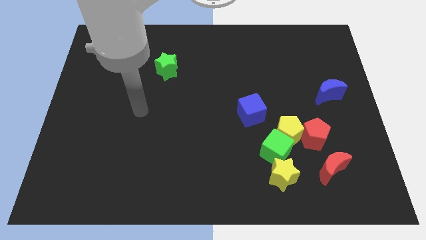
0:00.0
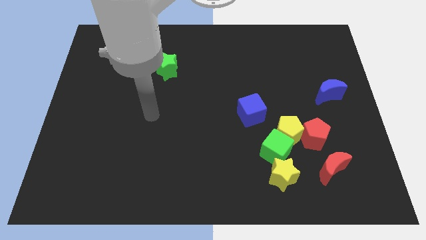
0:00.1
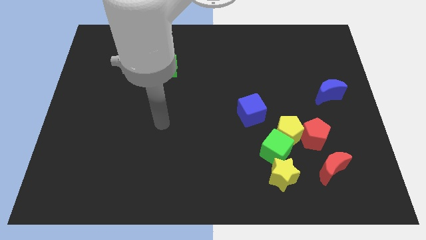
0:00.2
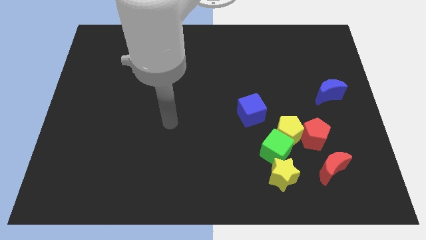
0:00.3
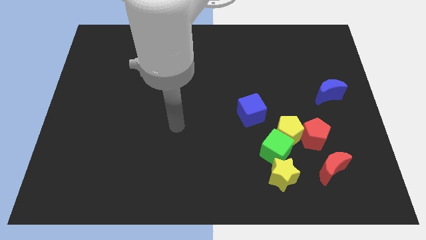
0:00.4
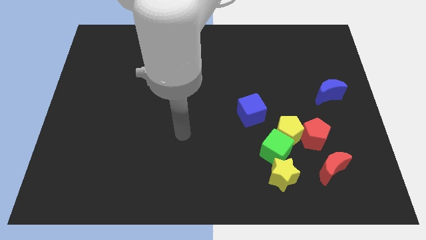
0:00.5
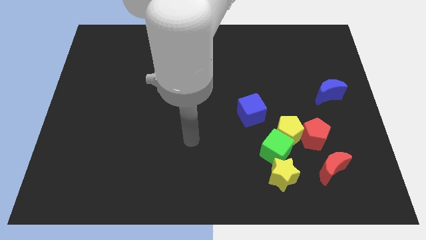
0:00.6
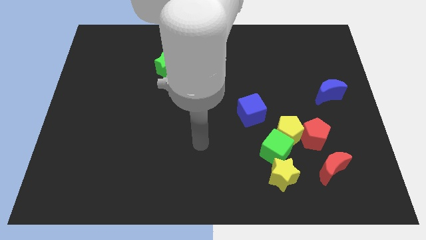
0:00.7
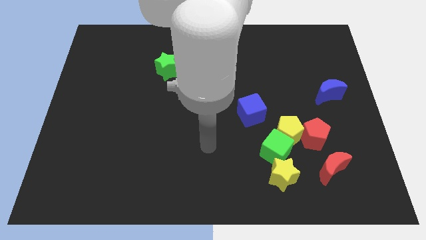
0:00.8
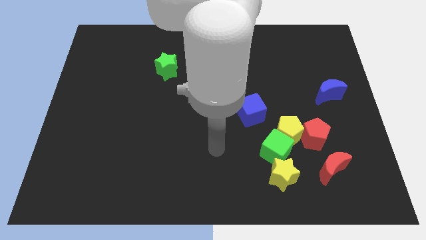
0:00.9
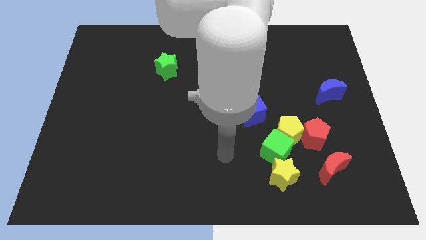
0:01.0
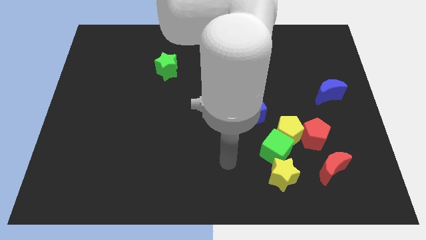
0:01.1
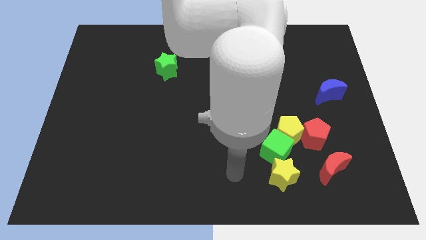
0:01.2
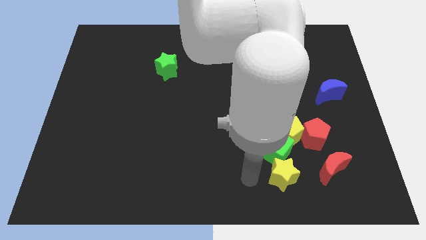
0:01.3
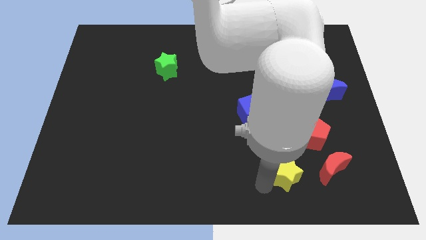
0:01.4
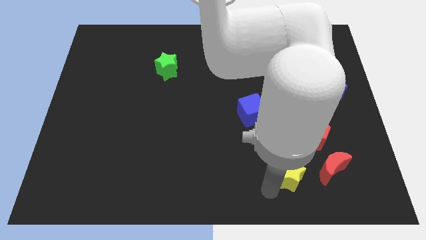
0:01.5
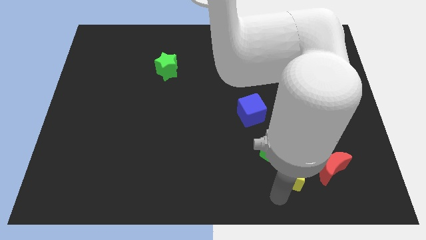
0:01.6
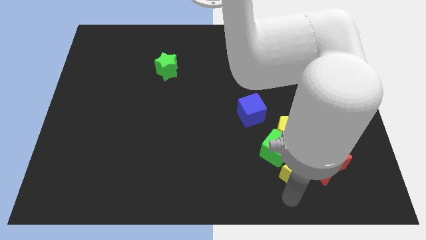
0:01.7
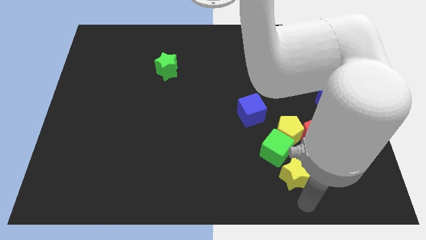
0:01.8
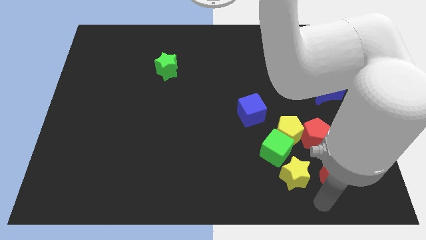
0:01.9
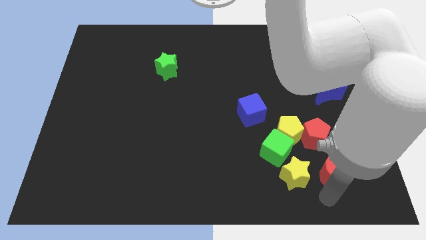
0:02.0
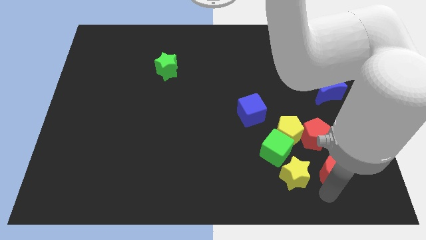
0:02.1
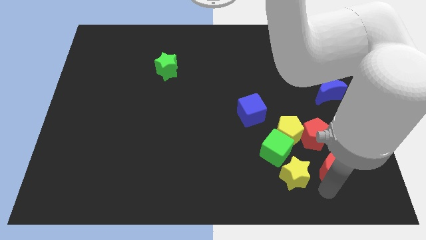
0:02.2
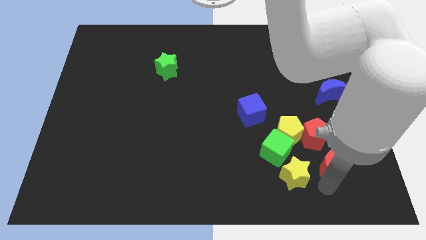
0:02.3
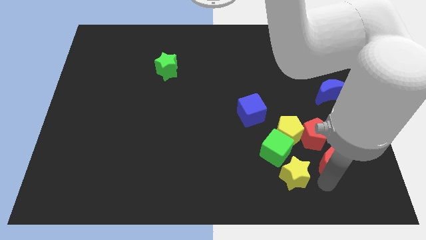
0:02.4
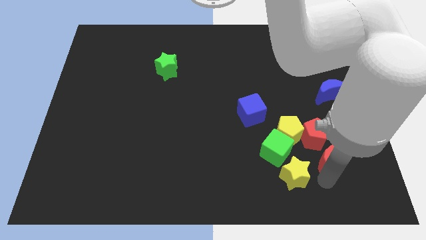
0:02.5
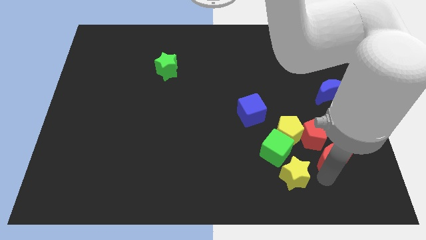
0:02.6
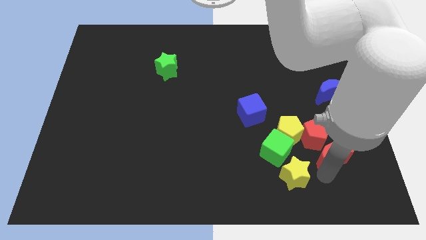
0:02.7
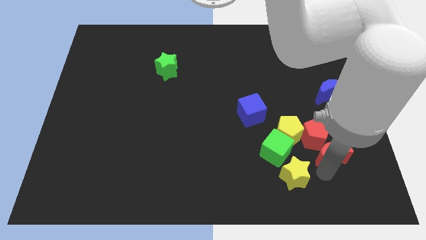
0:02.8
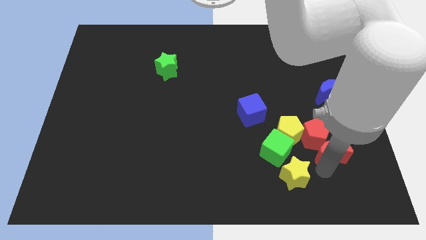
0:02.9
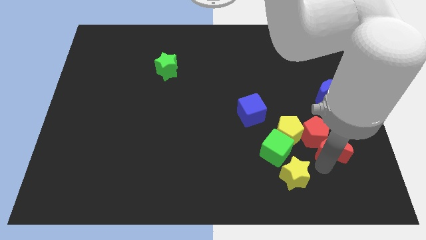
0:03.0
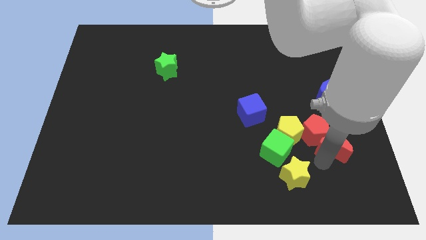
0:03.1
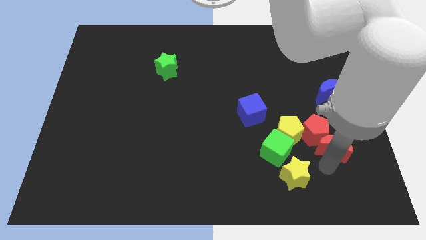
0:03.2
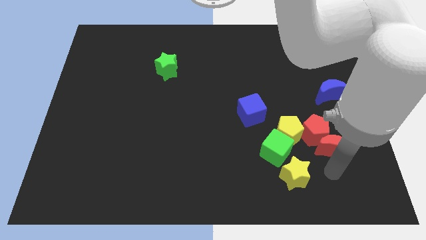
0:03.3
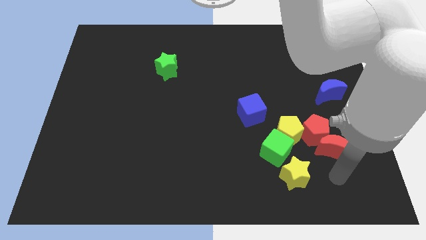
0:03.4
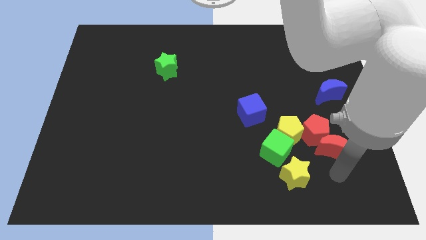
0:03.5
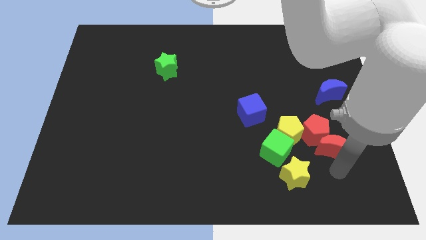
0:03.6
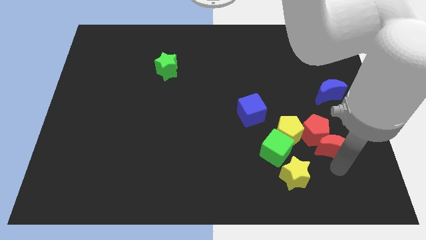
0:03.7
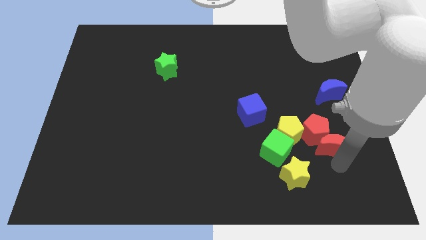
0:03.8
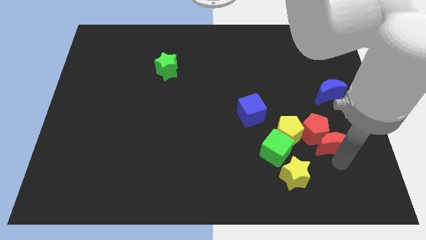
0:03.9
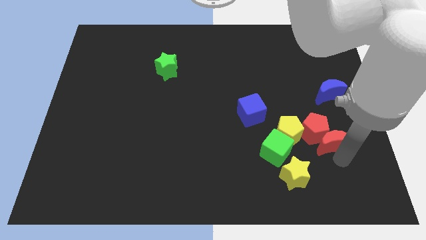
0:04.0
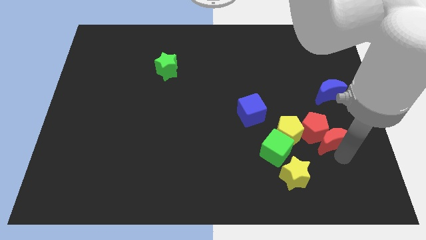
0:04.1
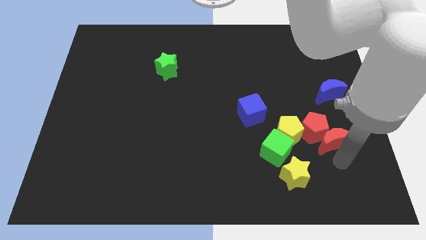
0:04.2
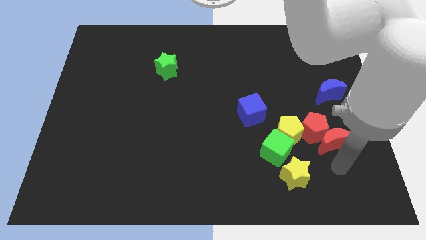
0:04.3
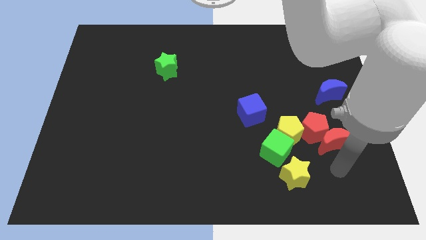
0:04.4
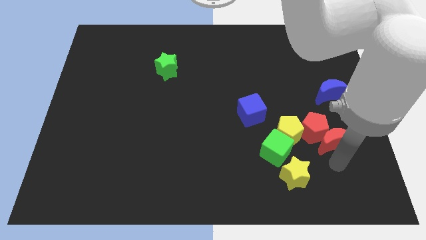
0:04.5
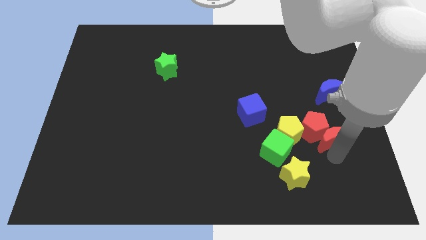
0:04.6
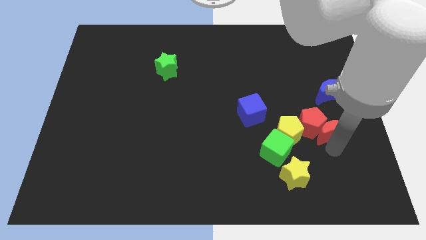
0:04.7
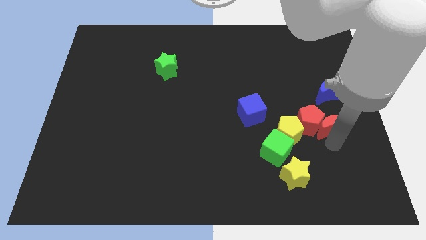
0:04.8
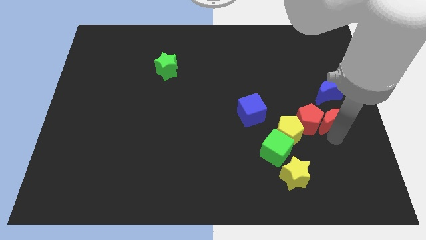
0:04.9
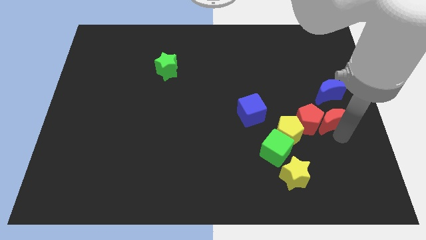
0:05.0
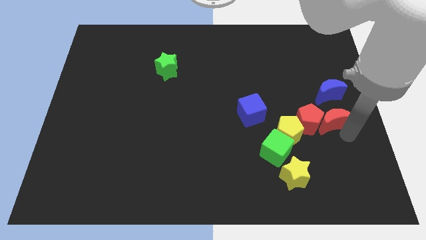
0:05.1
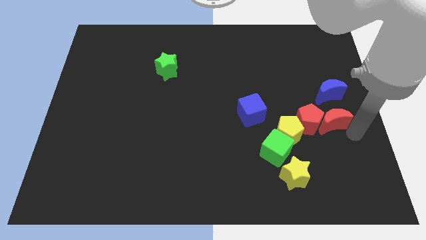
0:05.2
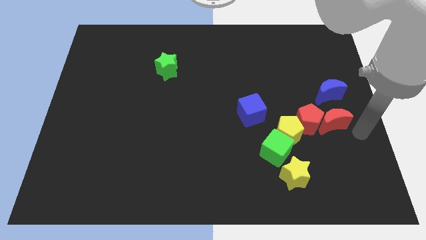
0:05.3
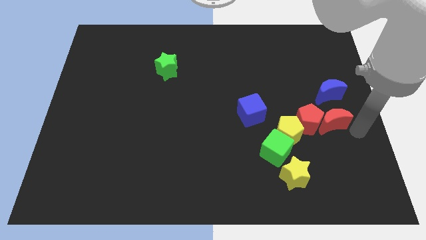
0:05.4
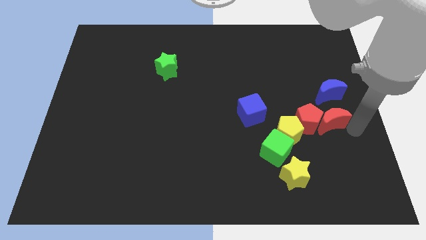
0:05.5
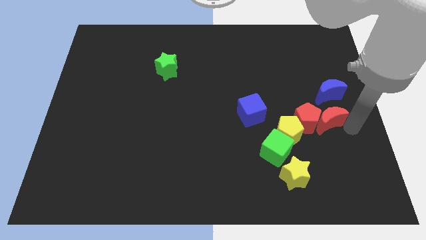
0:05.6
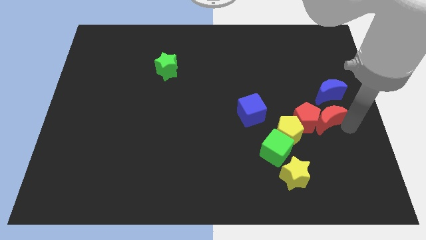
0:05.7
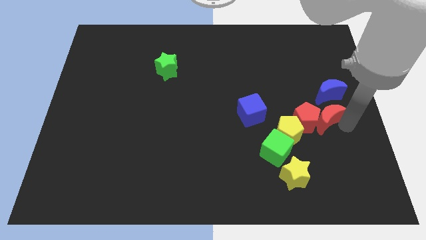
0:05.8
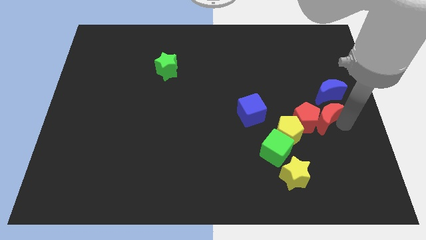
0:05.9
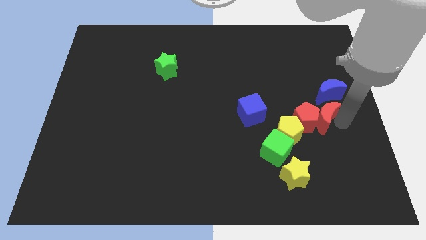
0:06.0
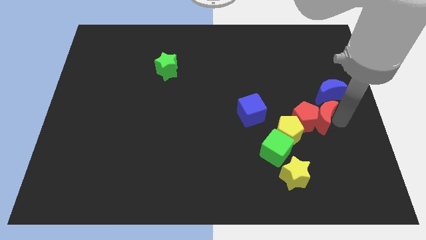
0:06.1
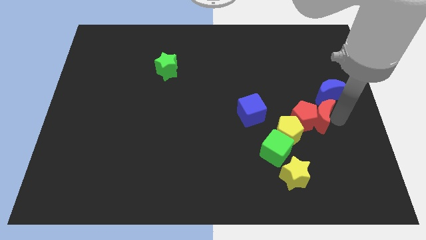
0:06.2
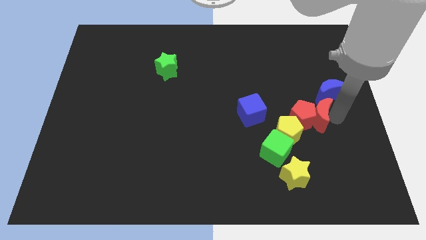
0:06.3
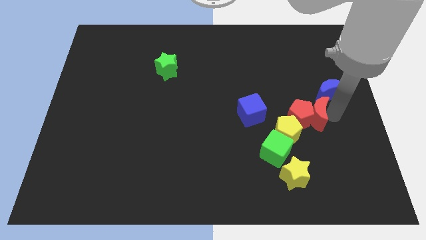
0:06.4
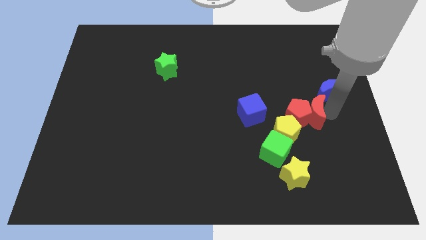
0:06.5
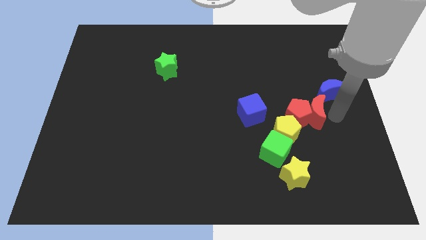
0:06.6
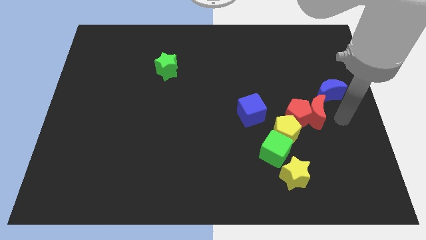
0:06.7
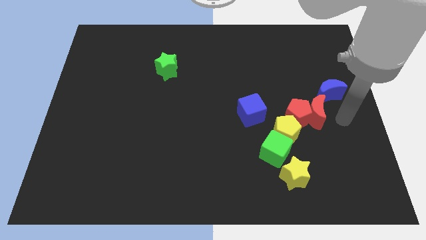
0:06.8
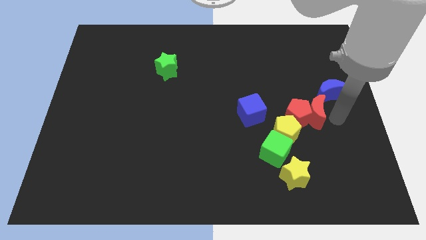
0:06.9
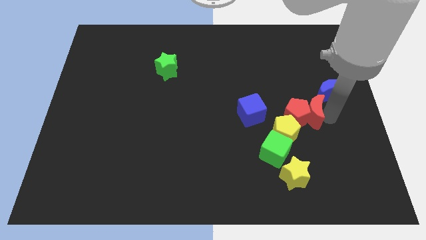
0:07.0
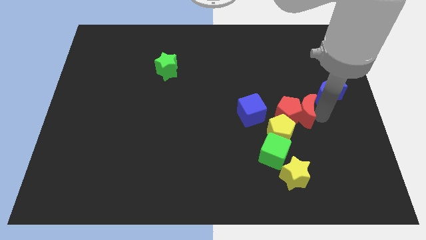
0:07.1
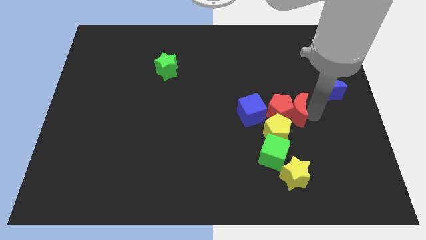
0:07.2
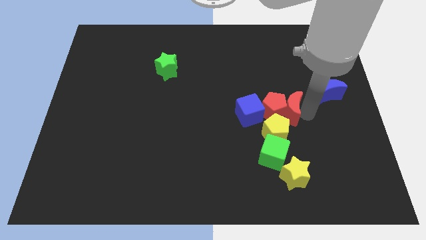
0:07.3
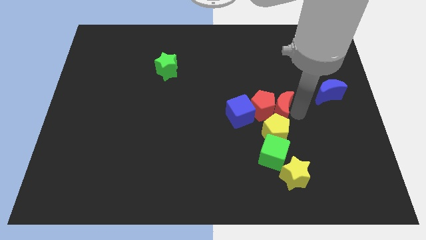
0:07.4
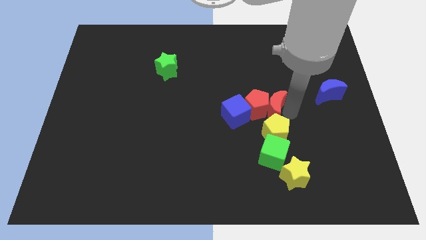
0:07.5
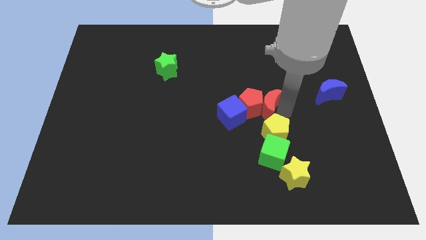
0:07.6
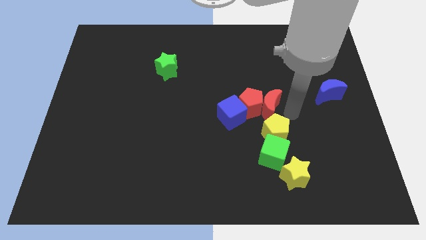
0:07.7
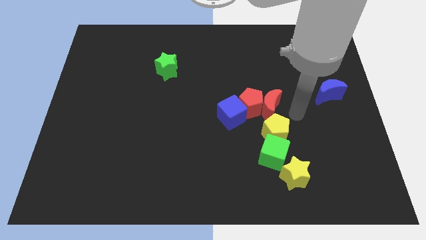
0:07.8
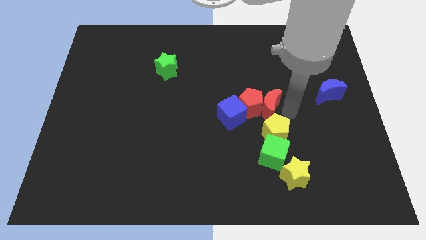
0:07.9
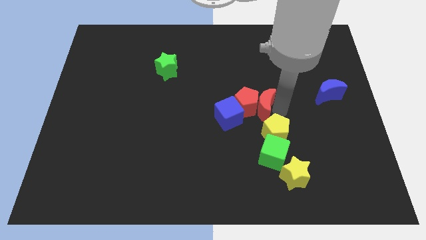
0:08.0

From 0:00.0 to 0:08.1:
slide the red moon to the center of the board
